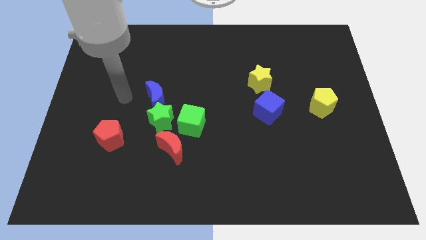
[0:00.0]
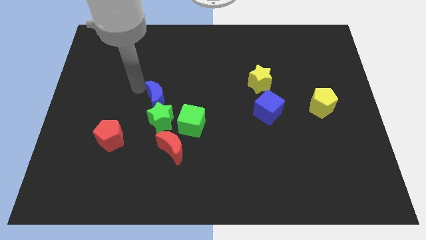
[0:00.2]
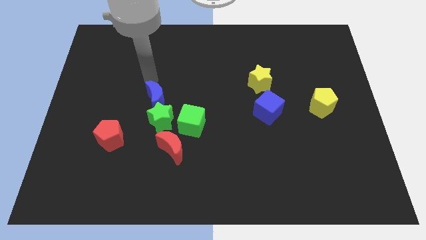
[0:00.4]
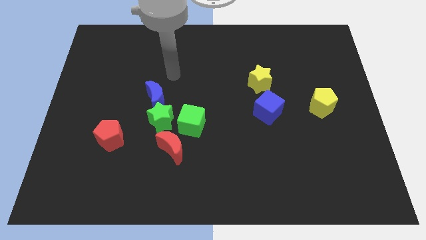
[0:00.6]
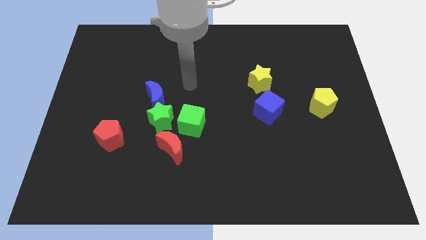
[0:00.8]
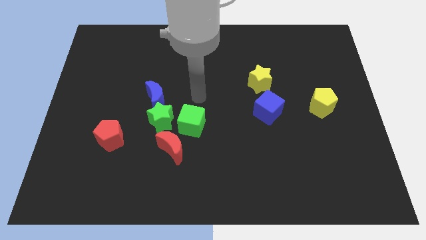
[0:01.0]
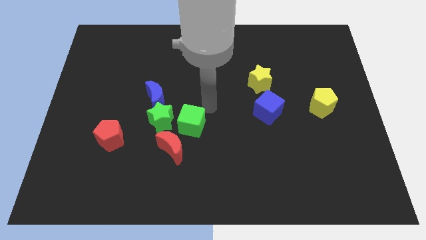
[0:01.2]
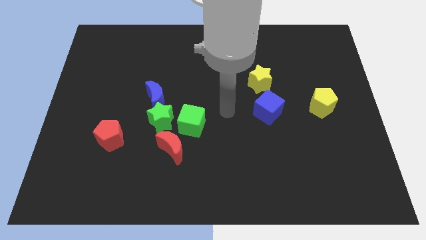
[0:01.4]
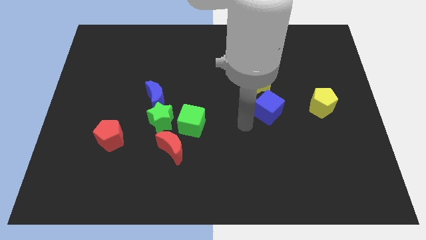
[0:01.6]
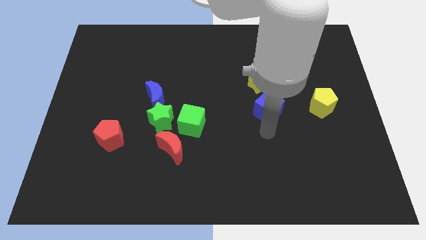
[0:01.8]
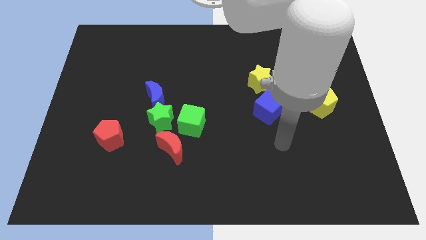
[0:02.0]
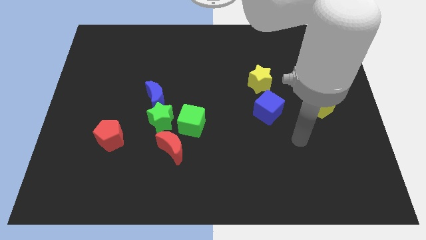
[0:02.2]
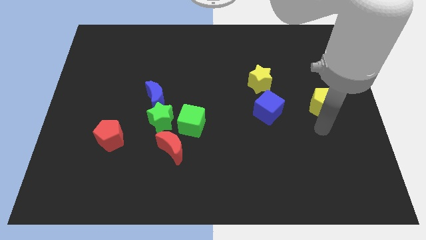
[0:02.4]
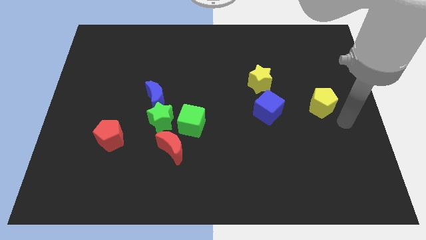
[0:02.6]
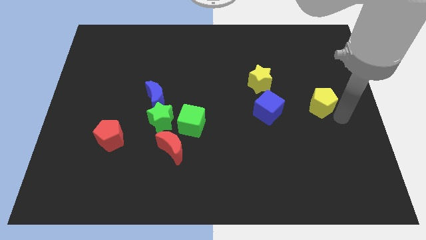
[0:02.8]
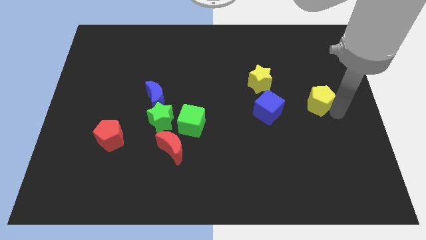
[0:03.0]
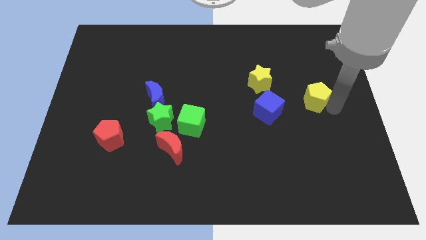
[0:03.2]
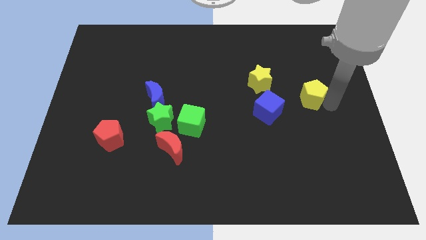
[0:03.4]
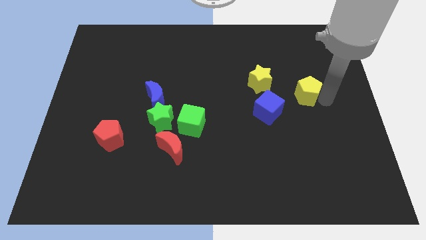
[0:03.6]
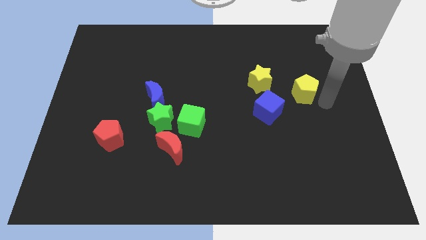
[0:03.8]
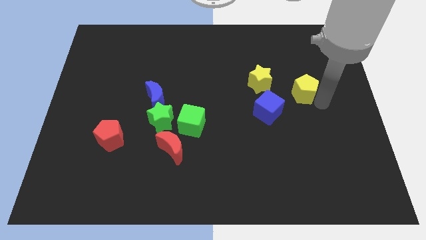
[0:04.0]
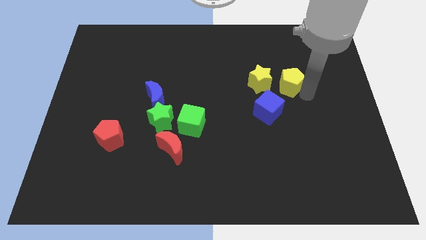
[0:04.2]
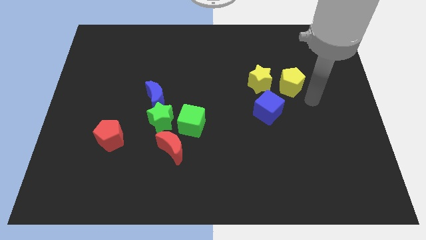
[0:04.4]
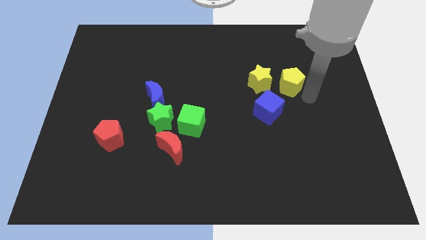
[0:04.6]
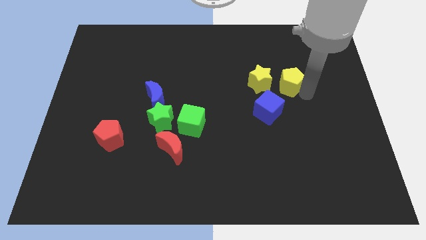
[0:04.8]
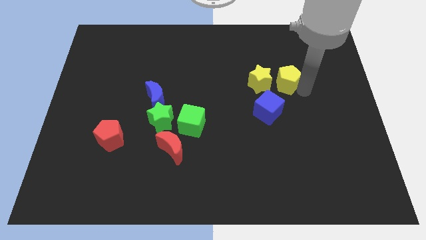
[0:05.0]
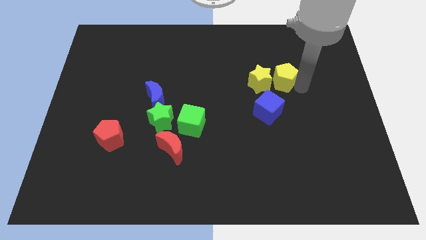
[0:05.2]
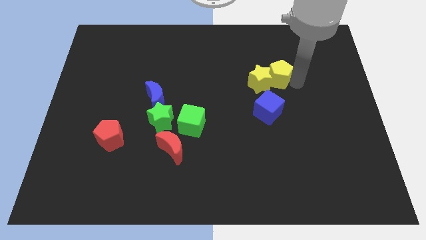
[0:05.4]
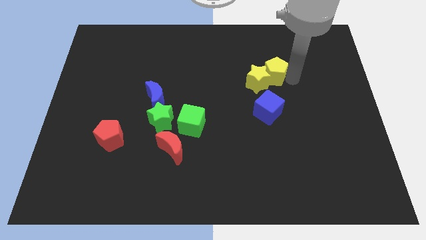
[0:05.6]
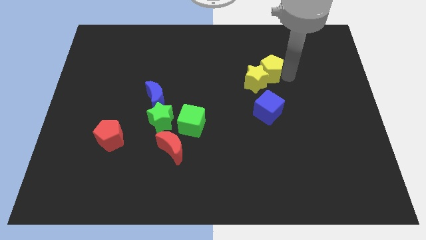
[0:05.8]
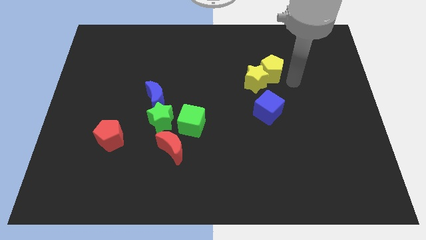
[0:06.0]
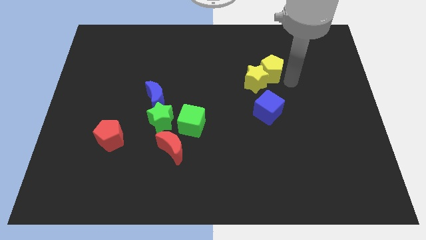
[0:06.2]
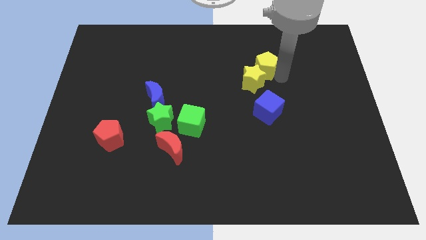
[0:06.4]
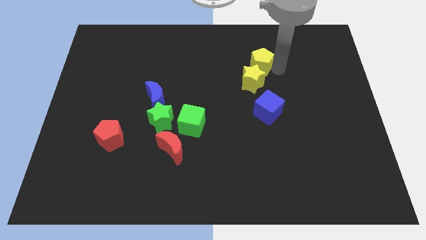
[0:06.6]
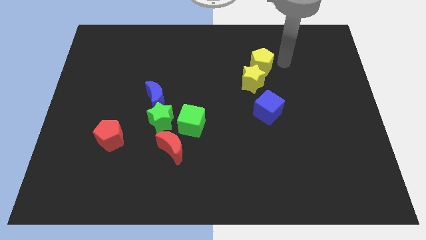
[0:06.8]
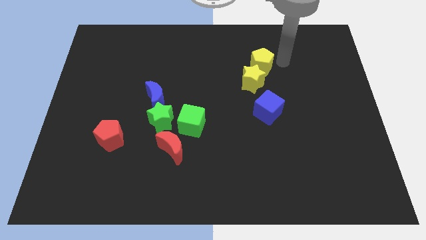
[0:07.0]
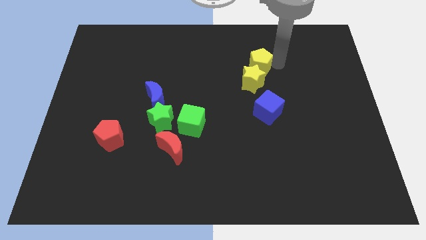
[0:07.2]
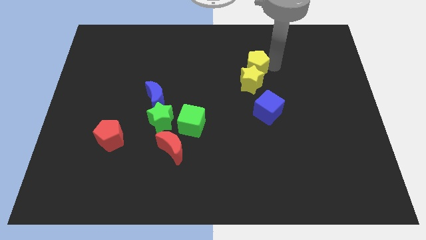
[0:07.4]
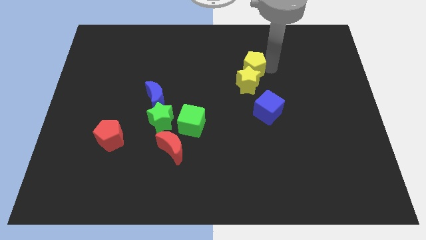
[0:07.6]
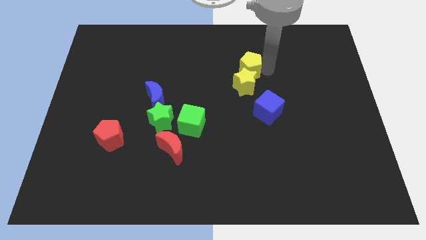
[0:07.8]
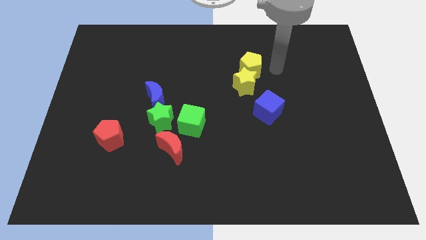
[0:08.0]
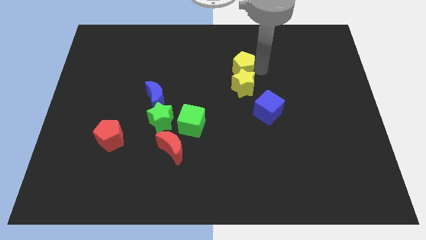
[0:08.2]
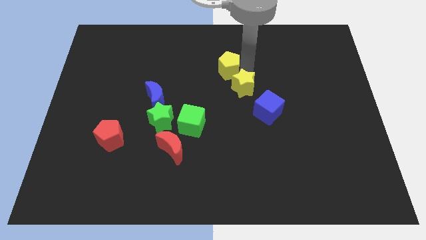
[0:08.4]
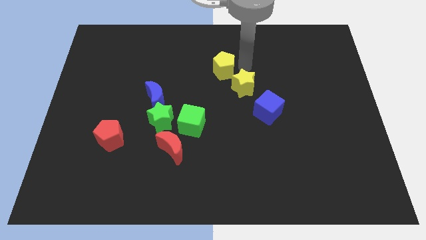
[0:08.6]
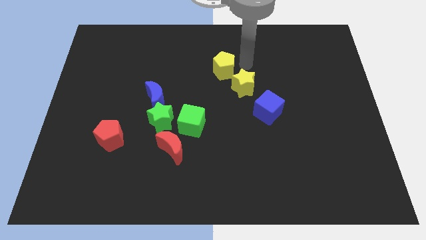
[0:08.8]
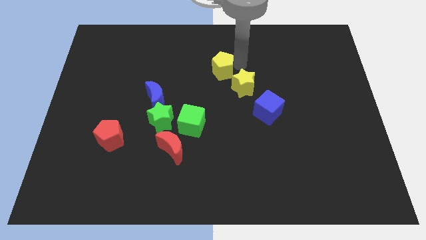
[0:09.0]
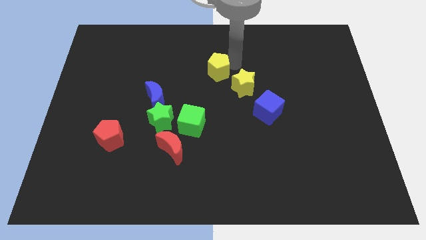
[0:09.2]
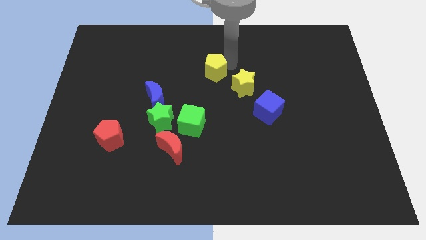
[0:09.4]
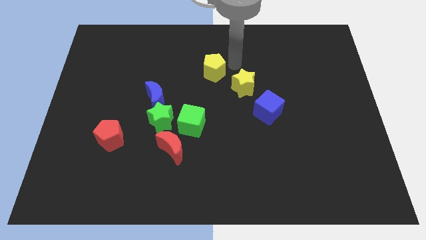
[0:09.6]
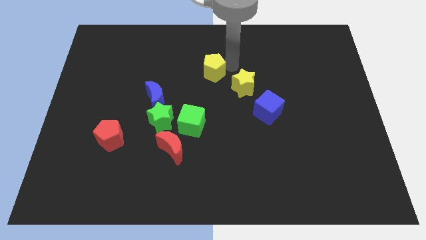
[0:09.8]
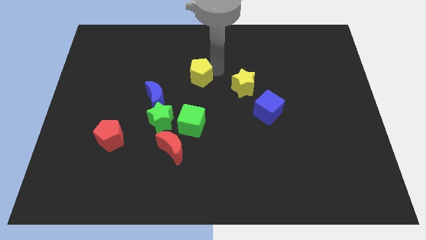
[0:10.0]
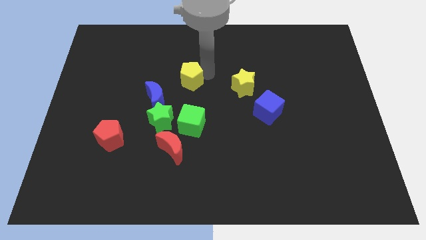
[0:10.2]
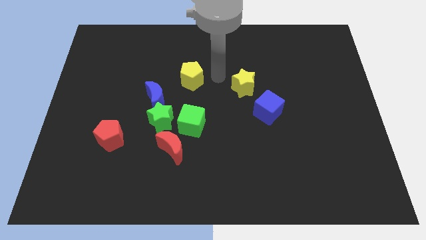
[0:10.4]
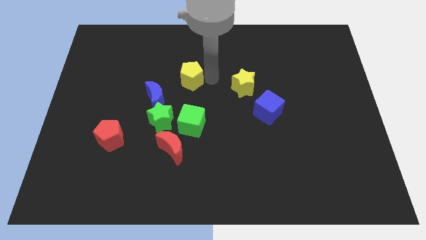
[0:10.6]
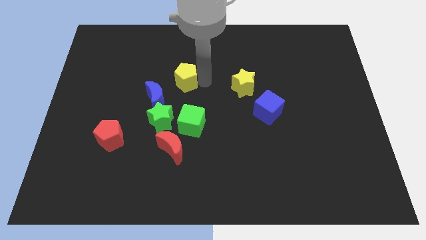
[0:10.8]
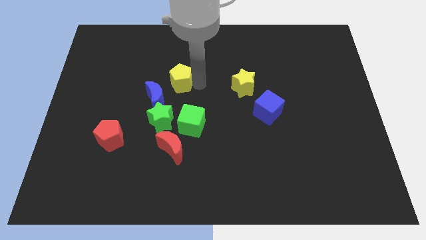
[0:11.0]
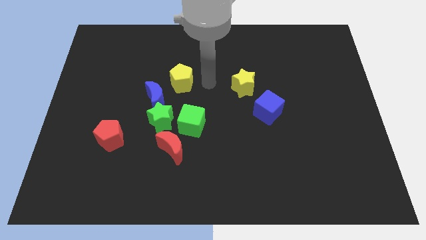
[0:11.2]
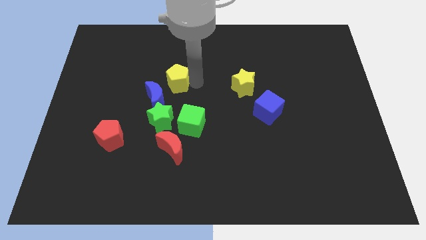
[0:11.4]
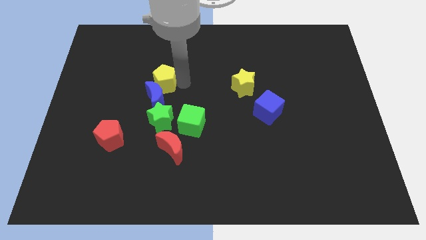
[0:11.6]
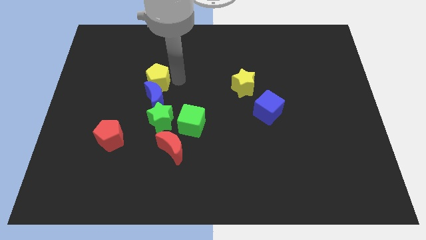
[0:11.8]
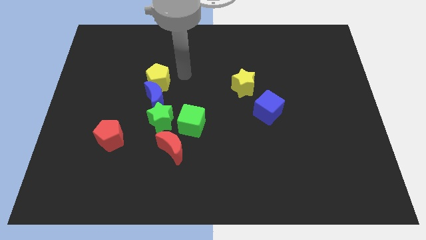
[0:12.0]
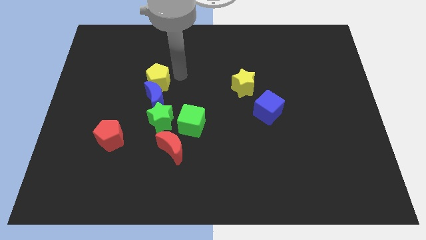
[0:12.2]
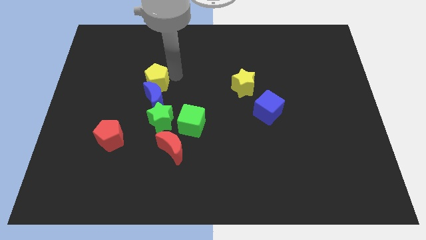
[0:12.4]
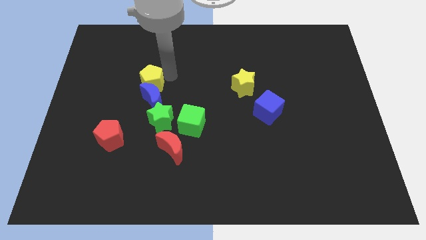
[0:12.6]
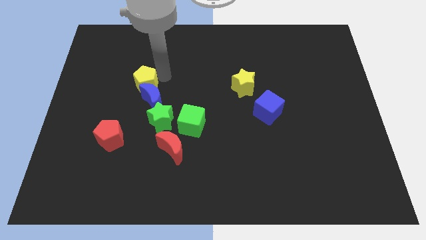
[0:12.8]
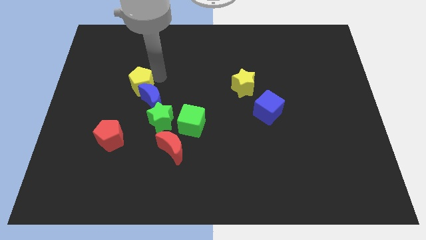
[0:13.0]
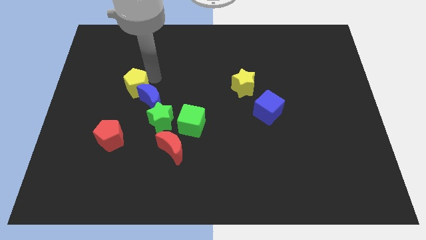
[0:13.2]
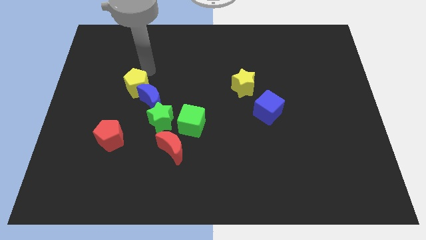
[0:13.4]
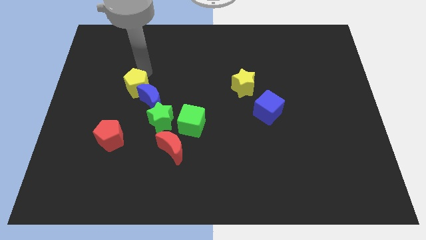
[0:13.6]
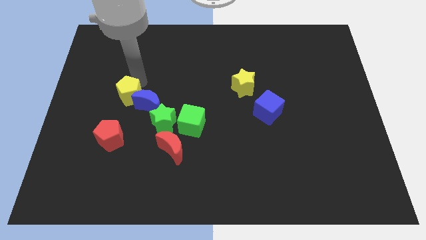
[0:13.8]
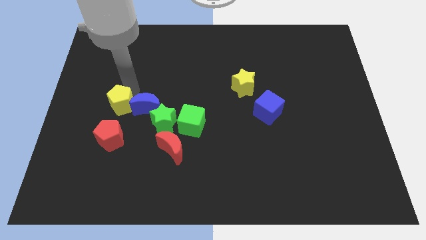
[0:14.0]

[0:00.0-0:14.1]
slide the yellow pentagon to the bottom left side of the blue moon
